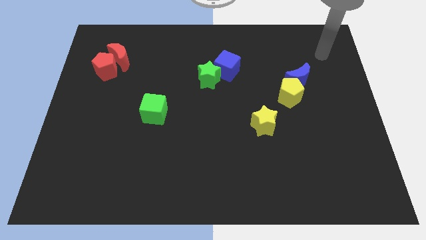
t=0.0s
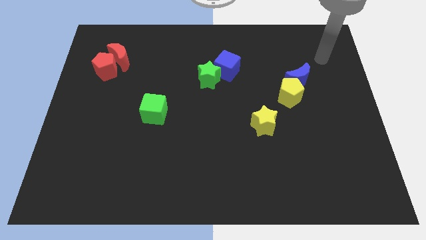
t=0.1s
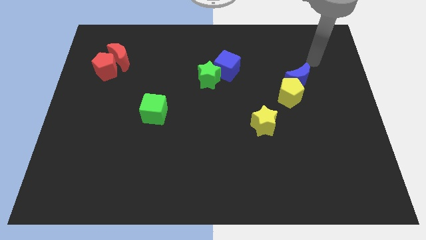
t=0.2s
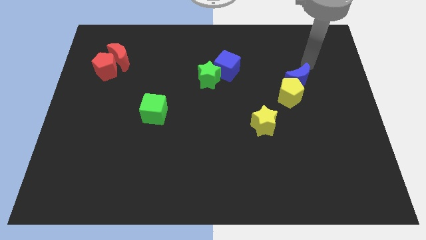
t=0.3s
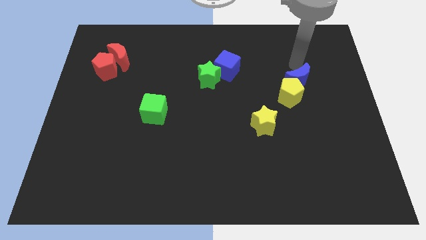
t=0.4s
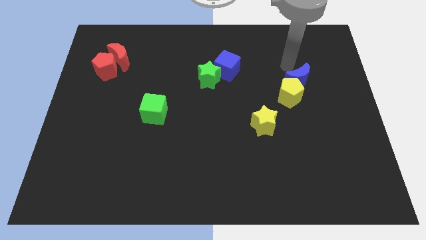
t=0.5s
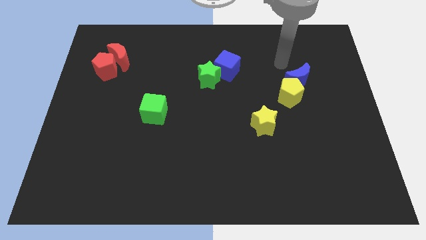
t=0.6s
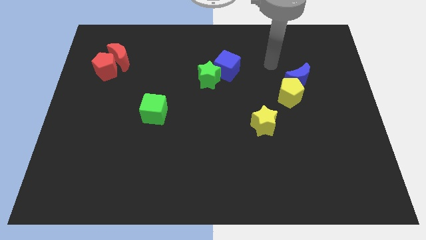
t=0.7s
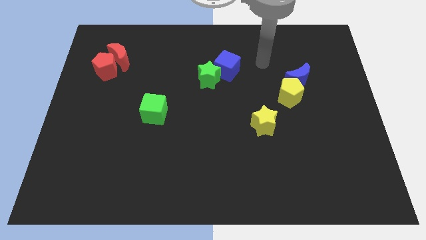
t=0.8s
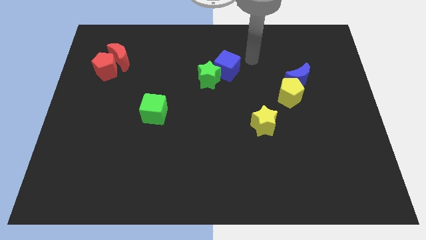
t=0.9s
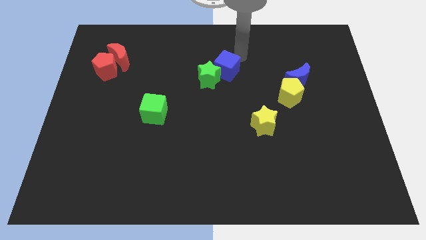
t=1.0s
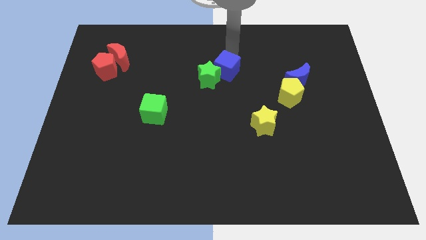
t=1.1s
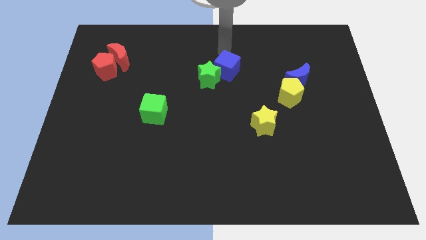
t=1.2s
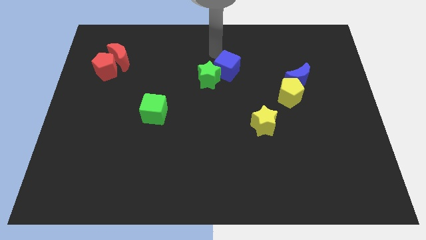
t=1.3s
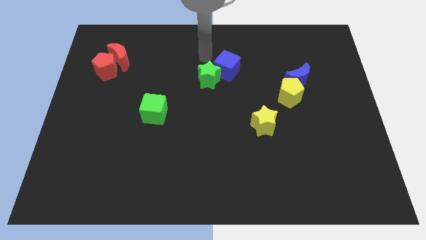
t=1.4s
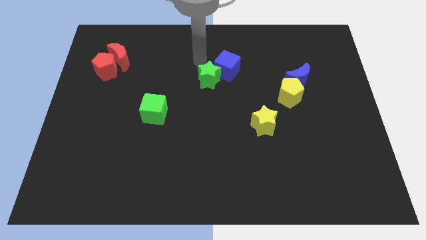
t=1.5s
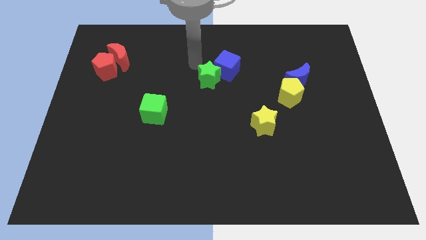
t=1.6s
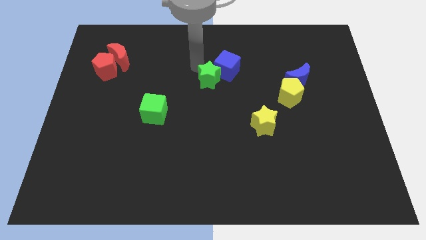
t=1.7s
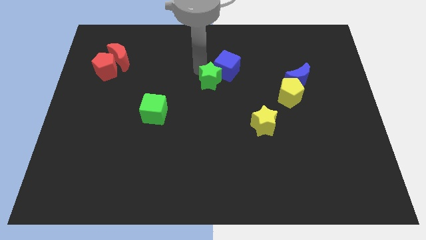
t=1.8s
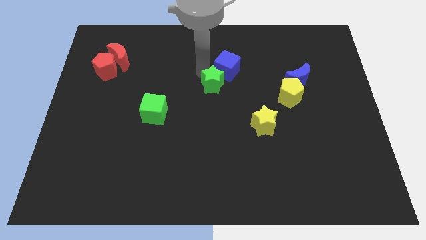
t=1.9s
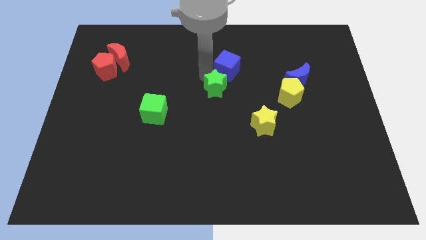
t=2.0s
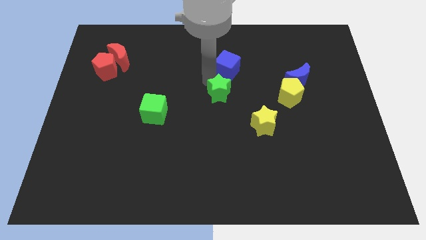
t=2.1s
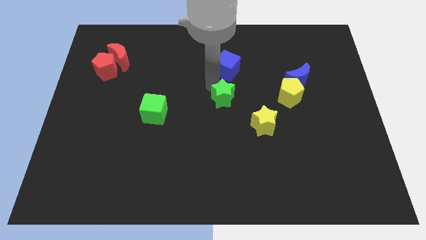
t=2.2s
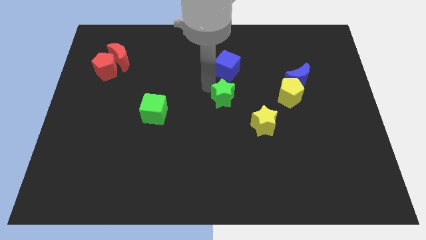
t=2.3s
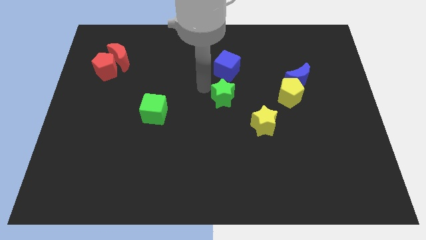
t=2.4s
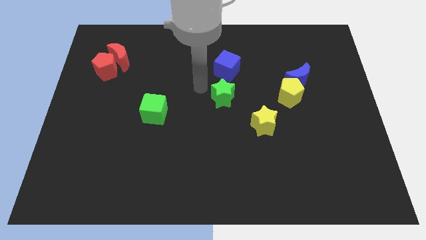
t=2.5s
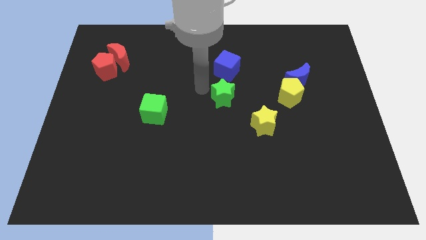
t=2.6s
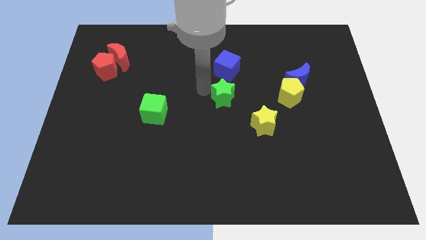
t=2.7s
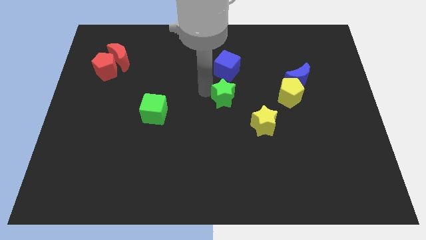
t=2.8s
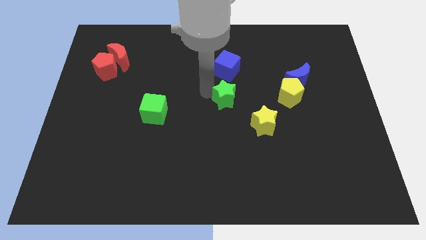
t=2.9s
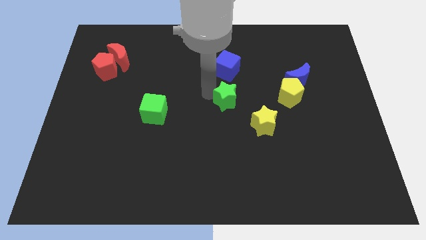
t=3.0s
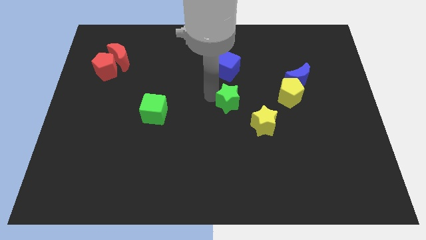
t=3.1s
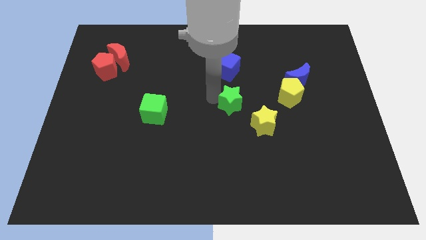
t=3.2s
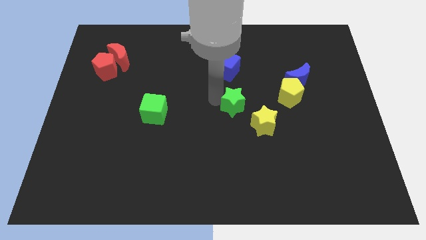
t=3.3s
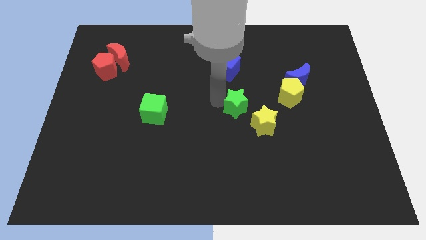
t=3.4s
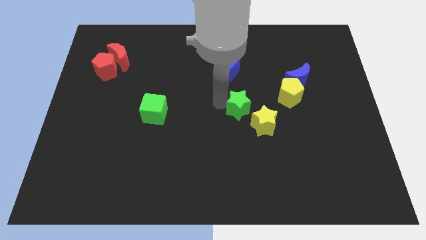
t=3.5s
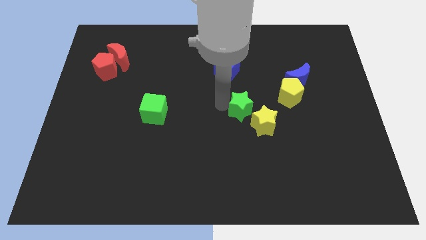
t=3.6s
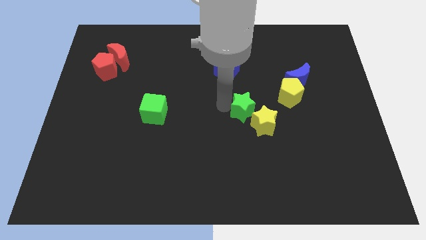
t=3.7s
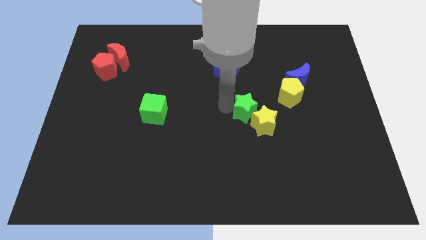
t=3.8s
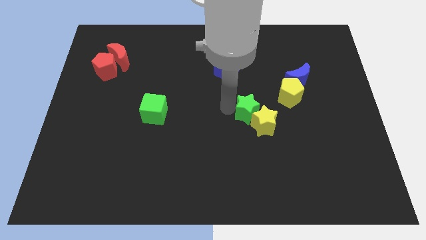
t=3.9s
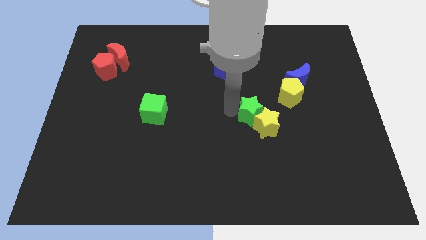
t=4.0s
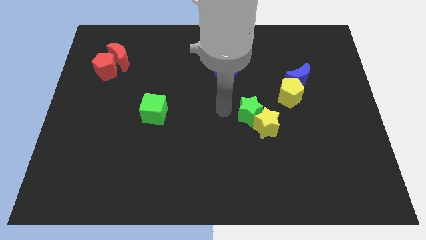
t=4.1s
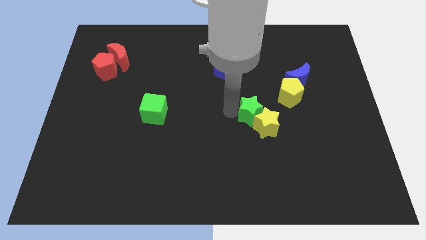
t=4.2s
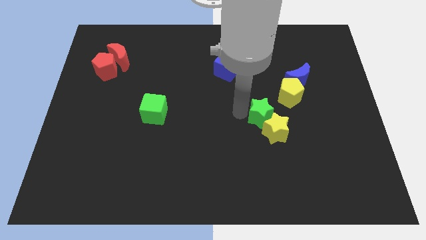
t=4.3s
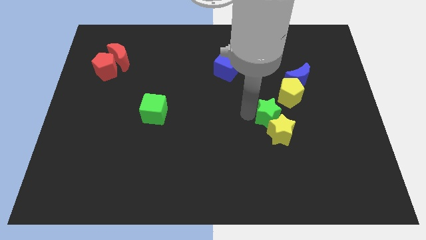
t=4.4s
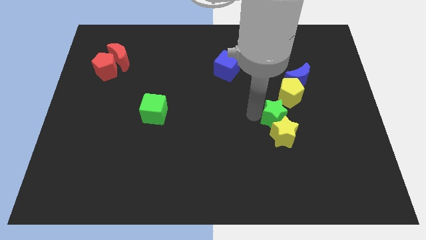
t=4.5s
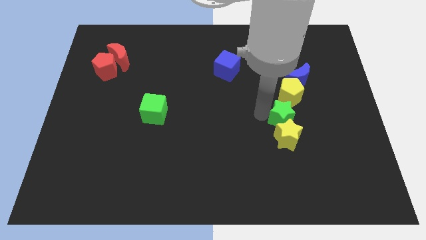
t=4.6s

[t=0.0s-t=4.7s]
push the green star down and to the right diagonally

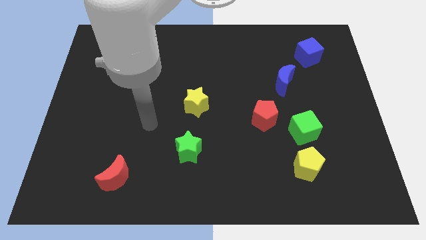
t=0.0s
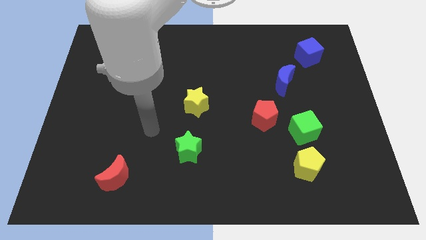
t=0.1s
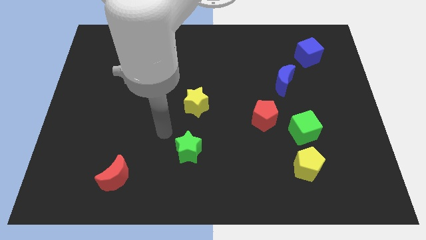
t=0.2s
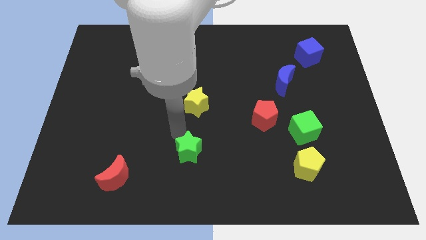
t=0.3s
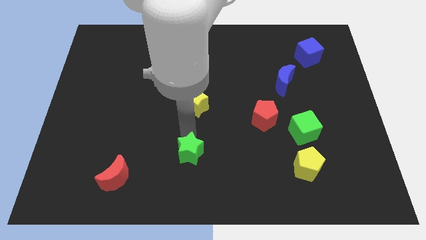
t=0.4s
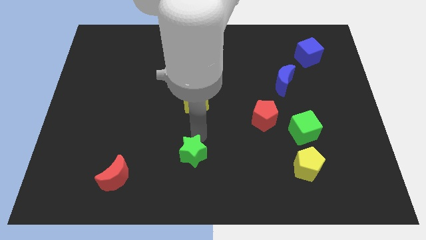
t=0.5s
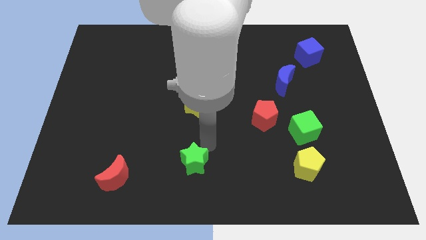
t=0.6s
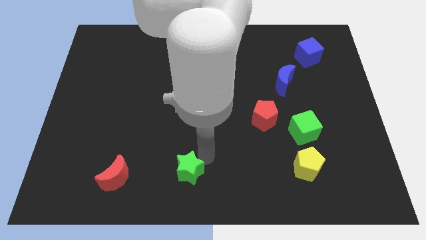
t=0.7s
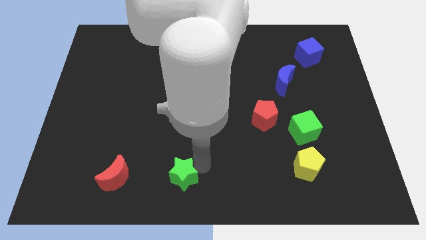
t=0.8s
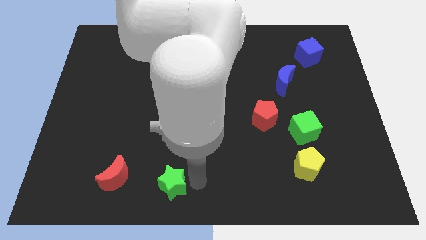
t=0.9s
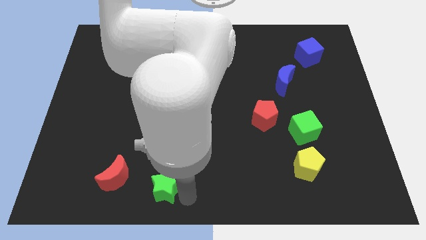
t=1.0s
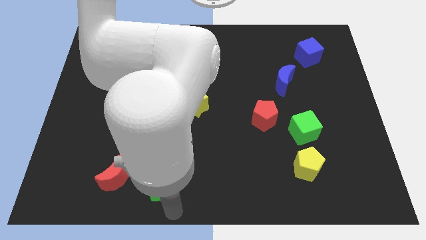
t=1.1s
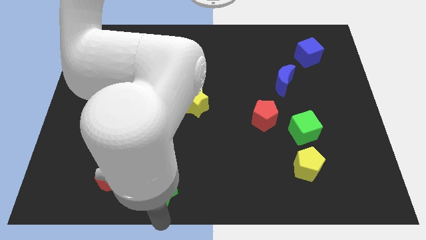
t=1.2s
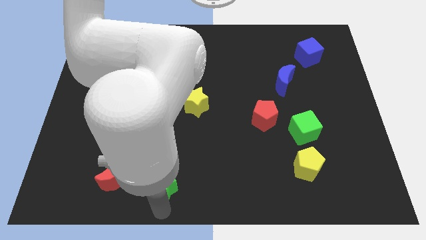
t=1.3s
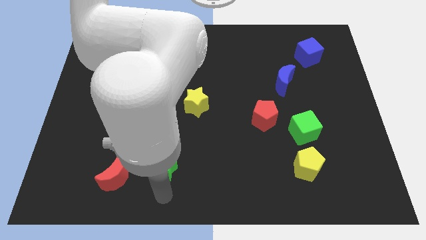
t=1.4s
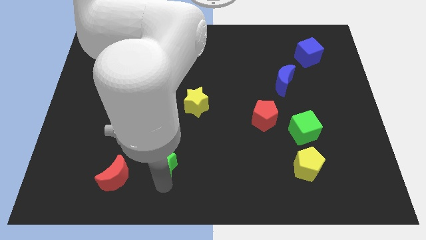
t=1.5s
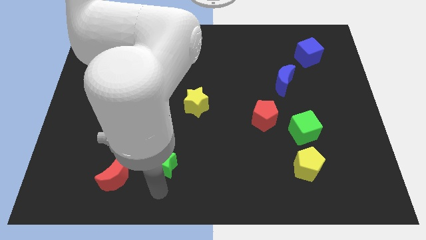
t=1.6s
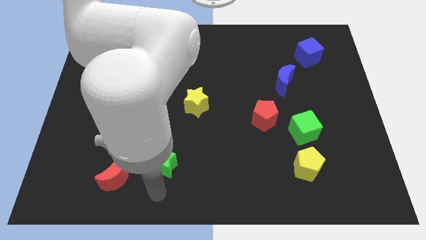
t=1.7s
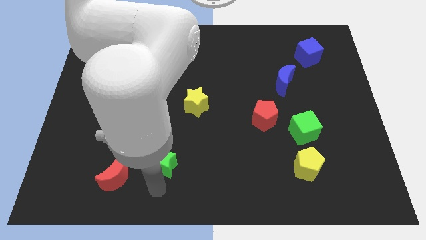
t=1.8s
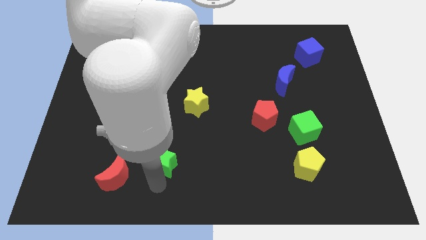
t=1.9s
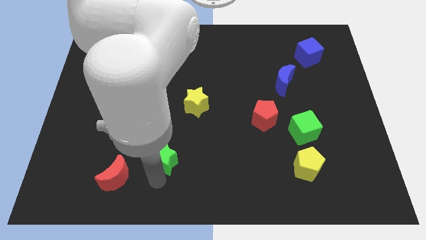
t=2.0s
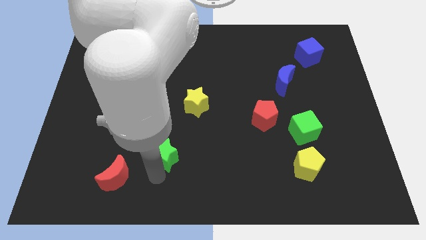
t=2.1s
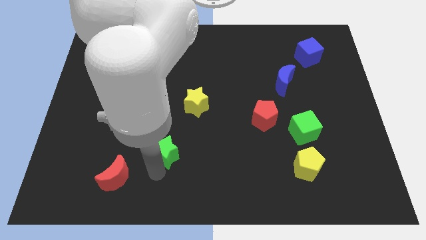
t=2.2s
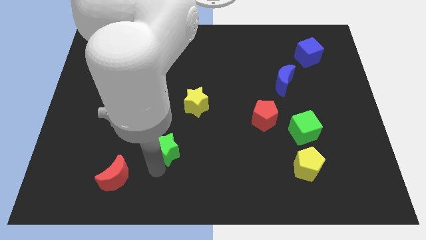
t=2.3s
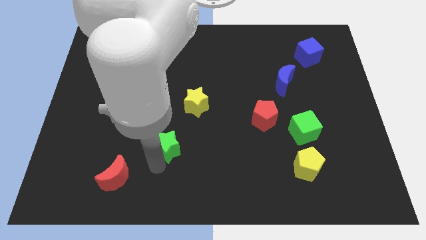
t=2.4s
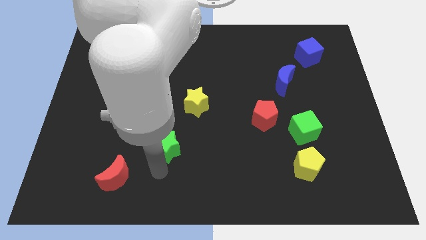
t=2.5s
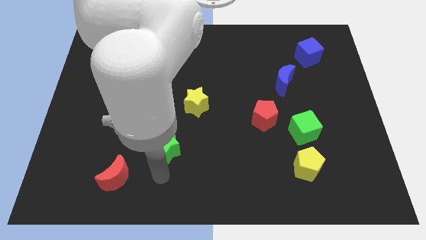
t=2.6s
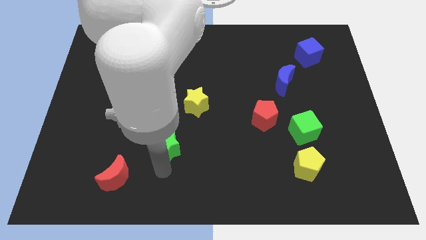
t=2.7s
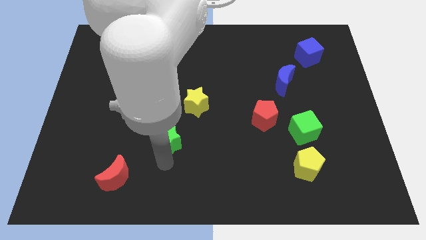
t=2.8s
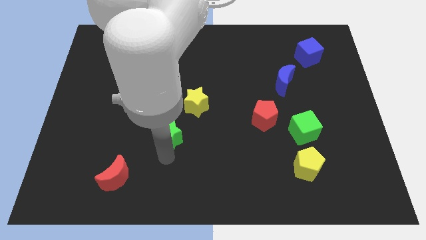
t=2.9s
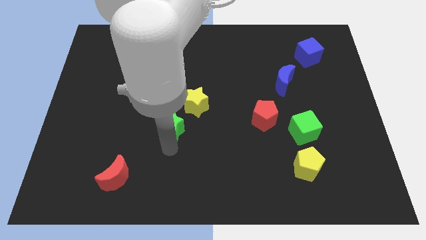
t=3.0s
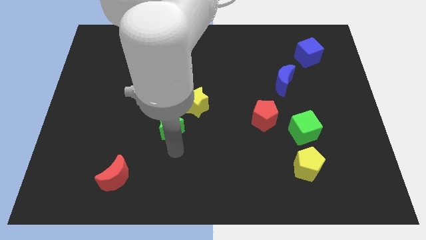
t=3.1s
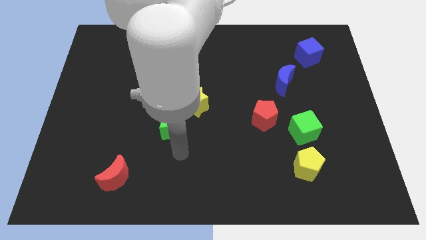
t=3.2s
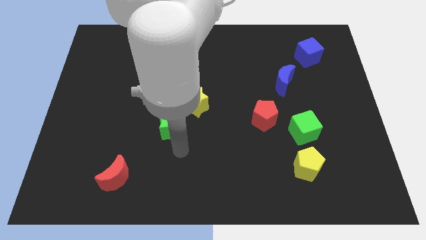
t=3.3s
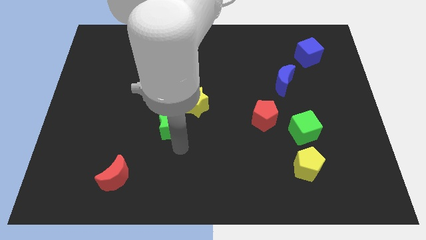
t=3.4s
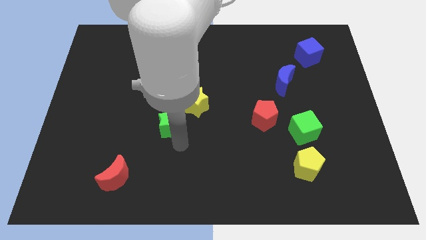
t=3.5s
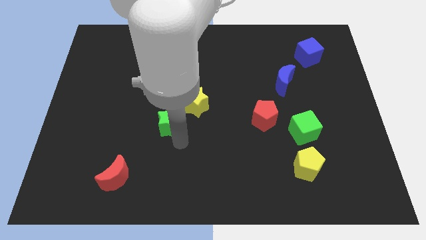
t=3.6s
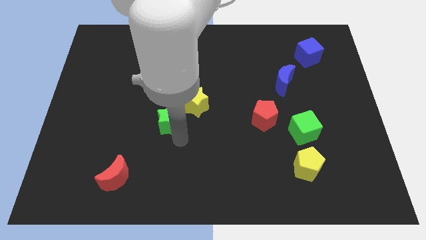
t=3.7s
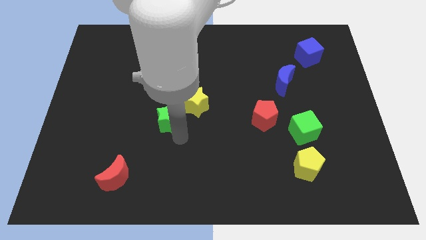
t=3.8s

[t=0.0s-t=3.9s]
slightly slide the green star up
